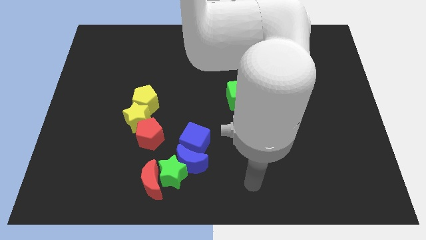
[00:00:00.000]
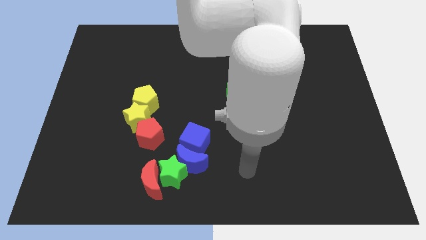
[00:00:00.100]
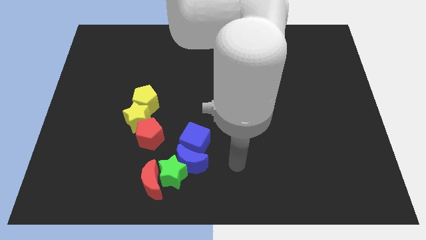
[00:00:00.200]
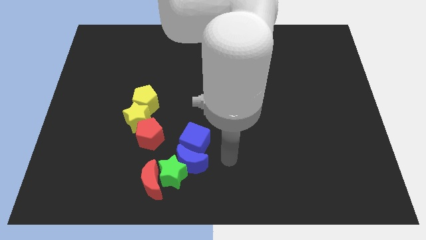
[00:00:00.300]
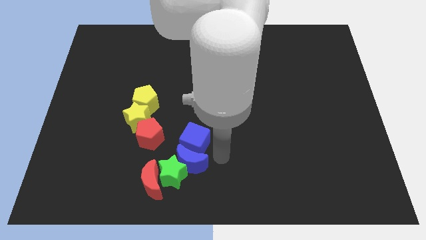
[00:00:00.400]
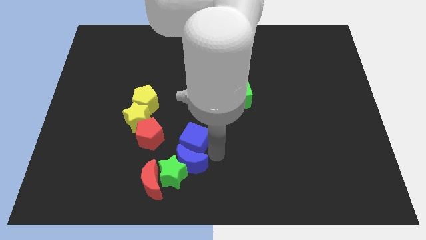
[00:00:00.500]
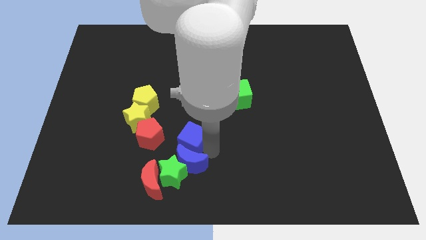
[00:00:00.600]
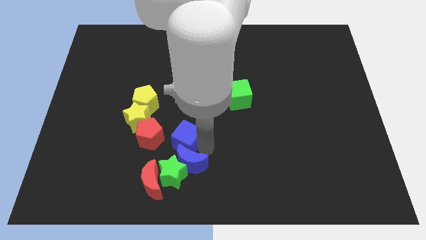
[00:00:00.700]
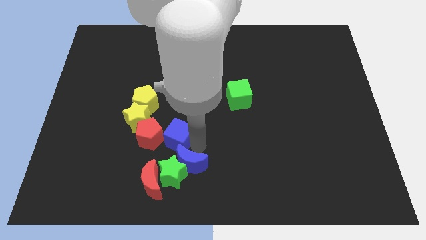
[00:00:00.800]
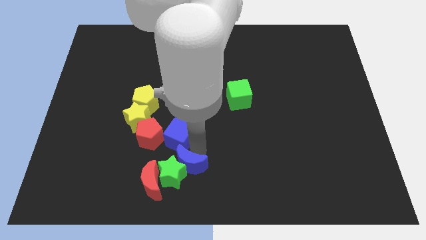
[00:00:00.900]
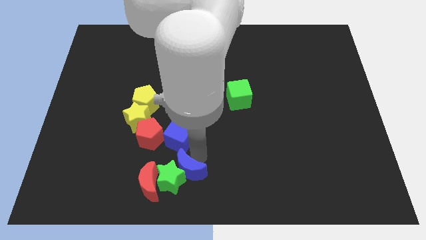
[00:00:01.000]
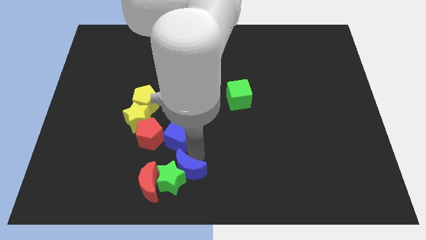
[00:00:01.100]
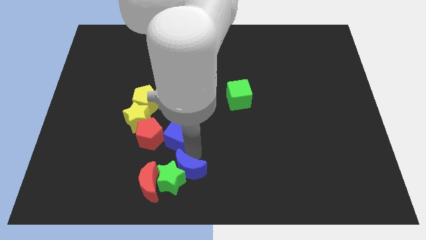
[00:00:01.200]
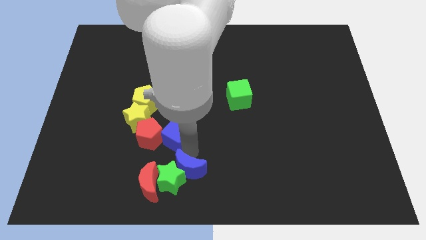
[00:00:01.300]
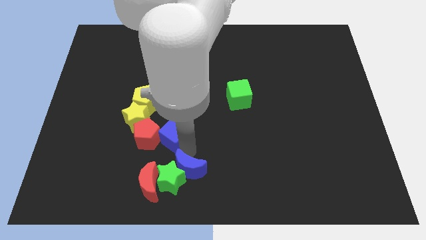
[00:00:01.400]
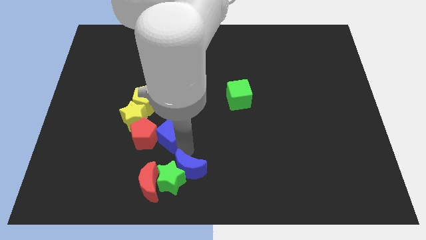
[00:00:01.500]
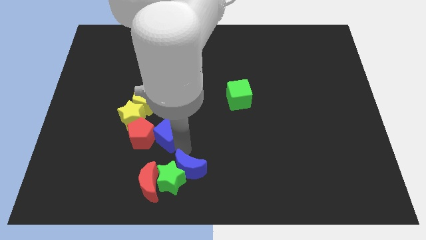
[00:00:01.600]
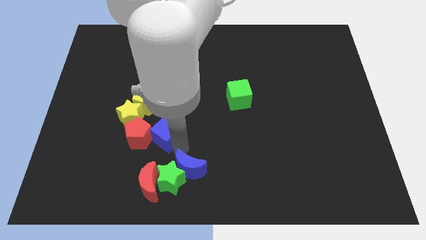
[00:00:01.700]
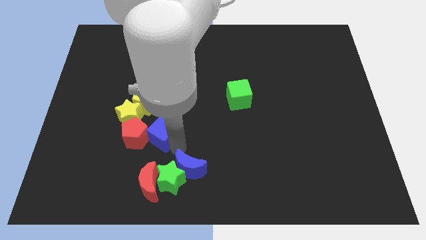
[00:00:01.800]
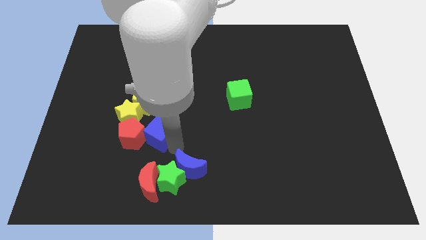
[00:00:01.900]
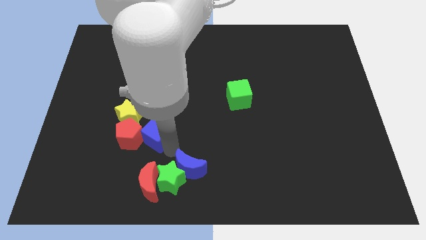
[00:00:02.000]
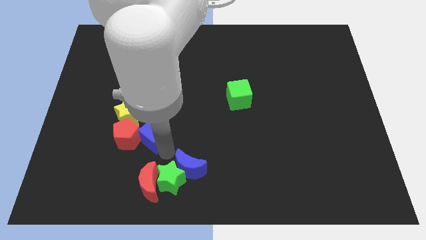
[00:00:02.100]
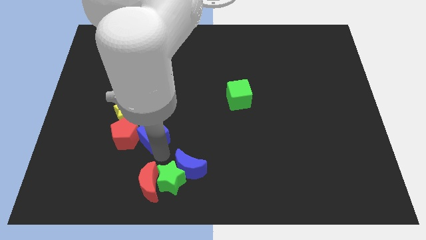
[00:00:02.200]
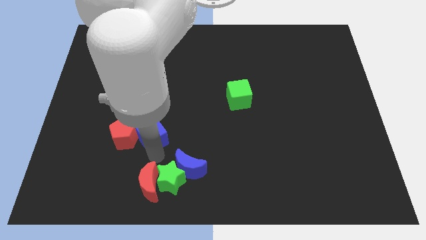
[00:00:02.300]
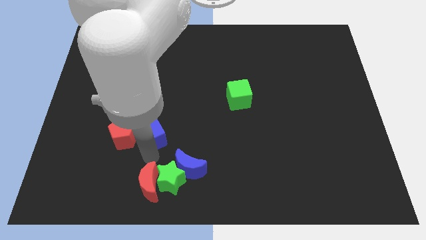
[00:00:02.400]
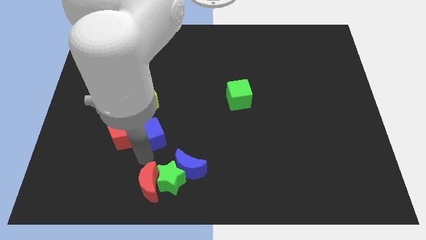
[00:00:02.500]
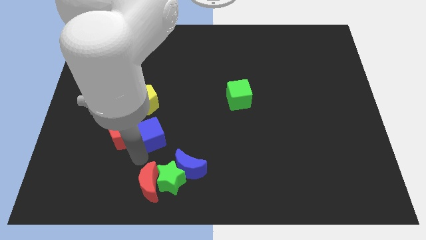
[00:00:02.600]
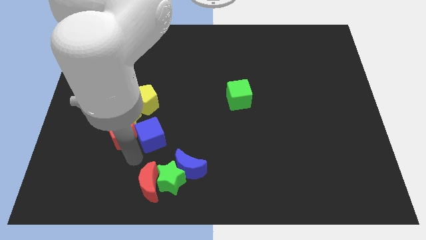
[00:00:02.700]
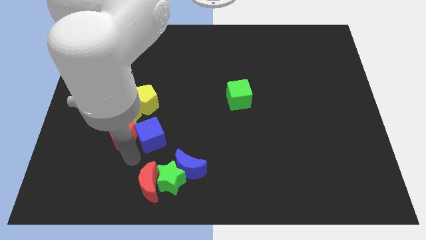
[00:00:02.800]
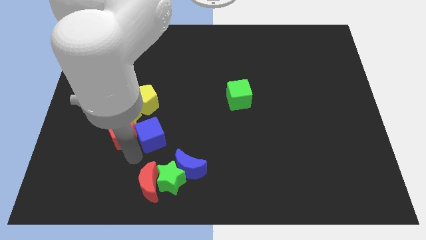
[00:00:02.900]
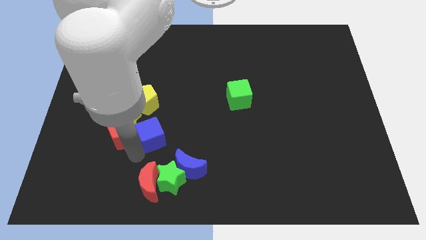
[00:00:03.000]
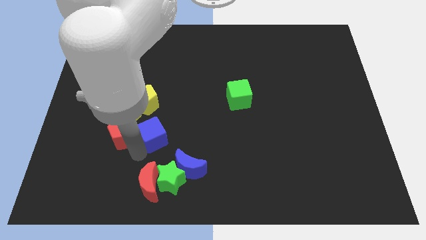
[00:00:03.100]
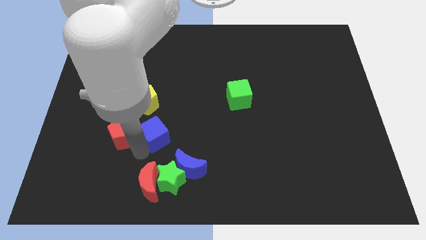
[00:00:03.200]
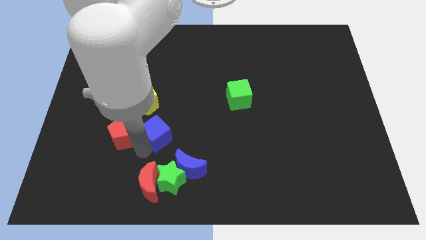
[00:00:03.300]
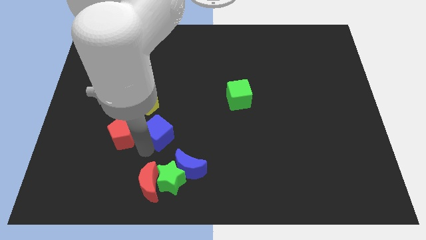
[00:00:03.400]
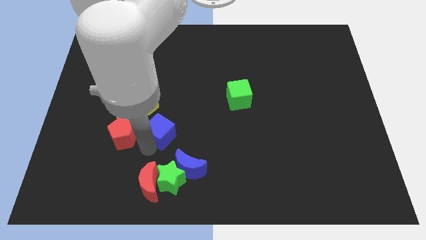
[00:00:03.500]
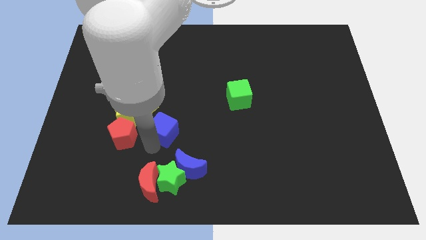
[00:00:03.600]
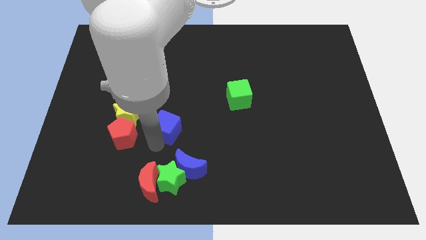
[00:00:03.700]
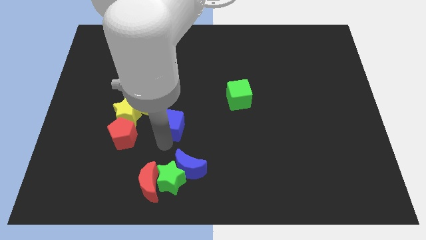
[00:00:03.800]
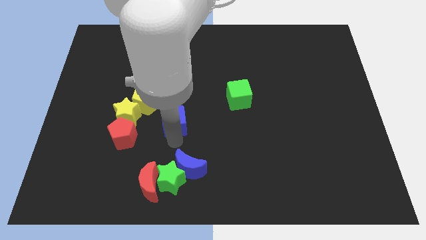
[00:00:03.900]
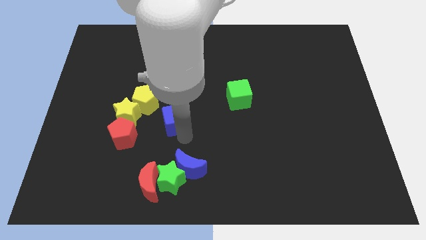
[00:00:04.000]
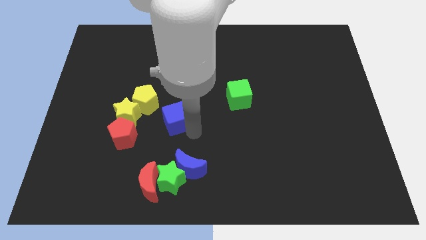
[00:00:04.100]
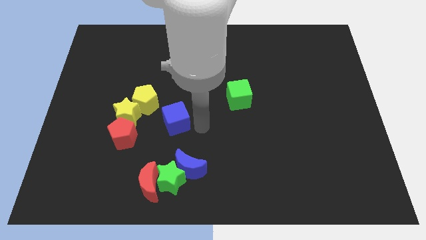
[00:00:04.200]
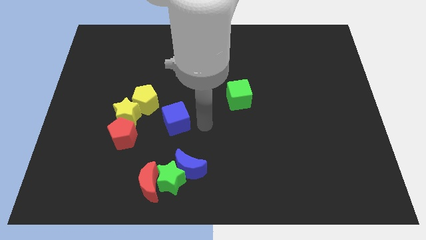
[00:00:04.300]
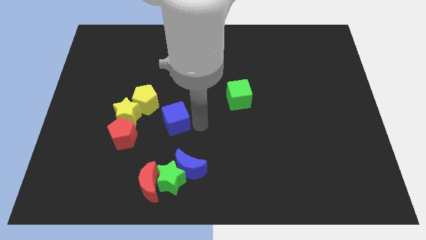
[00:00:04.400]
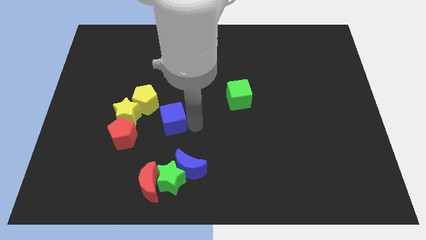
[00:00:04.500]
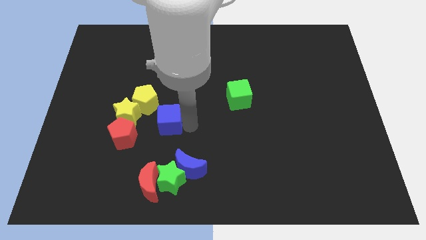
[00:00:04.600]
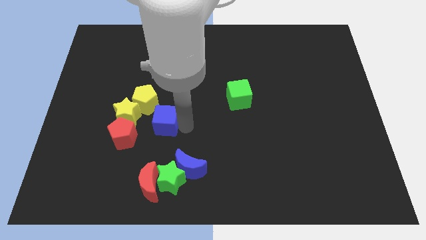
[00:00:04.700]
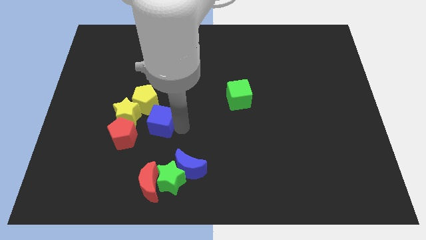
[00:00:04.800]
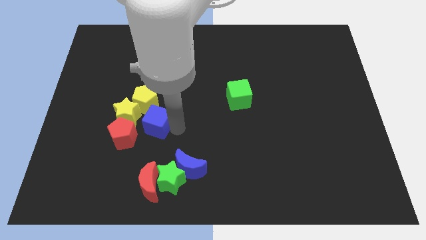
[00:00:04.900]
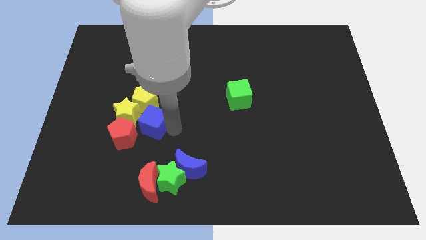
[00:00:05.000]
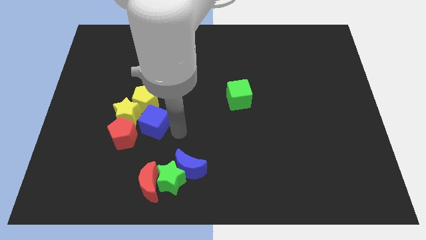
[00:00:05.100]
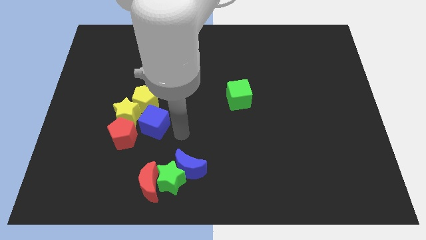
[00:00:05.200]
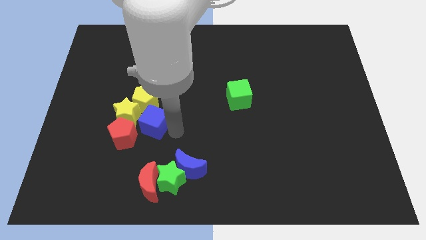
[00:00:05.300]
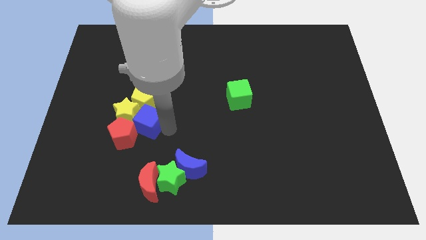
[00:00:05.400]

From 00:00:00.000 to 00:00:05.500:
put the blue cube towards the yellow star

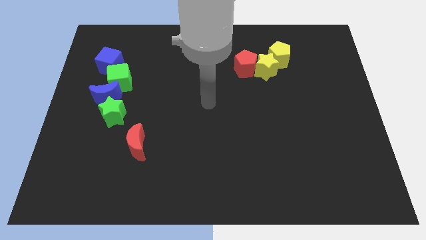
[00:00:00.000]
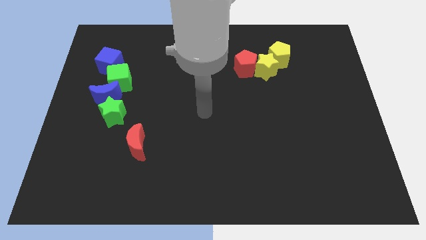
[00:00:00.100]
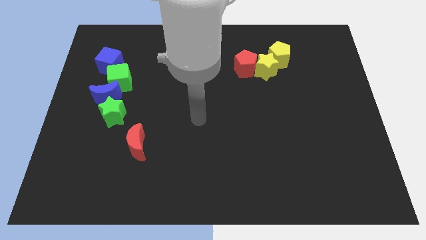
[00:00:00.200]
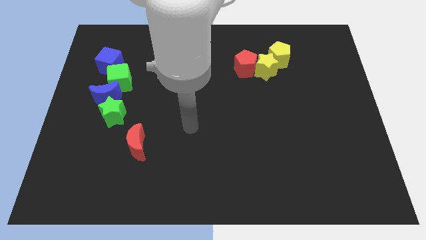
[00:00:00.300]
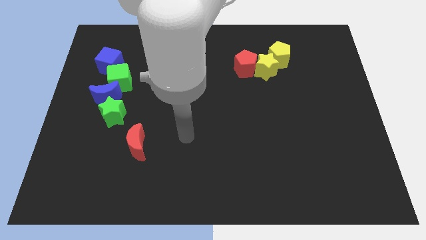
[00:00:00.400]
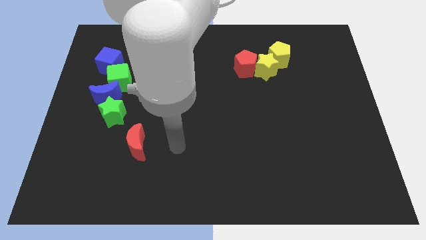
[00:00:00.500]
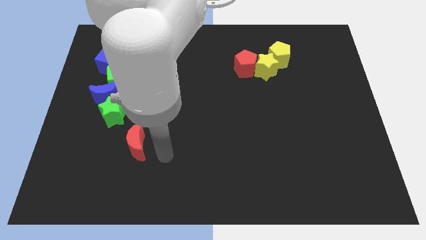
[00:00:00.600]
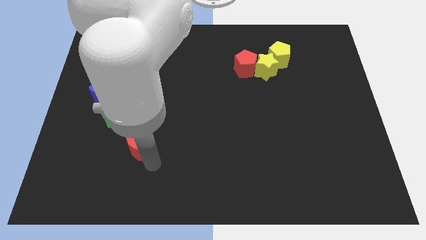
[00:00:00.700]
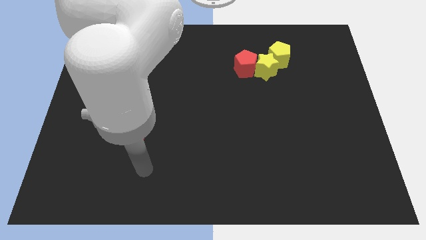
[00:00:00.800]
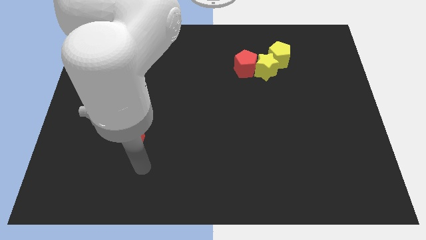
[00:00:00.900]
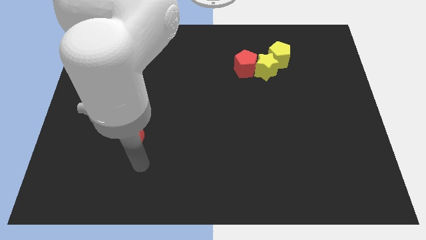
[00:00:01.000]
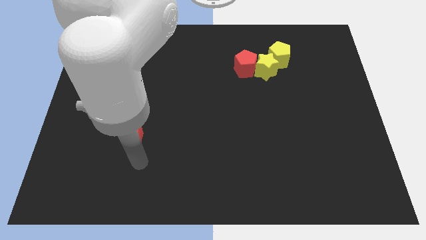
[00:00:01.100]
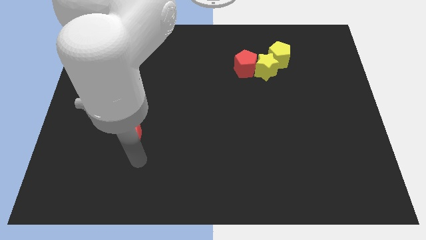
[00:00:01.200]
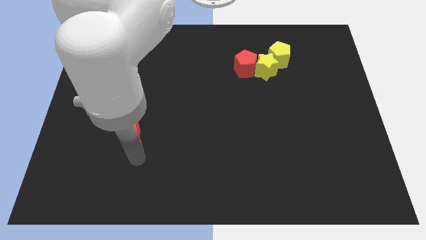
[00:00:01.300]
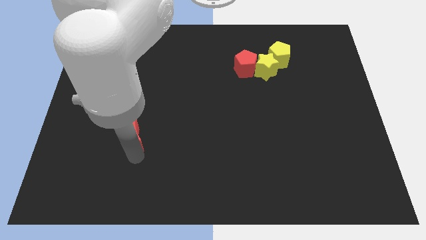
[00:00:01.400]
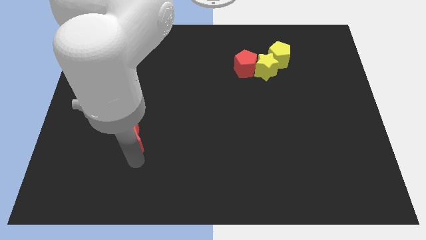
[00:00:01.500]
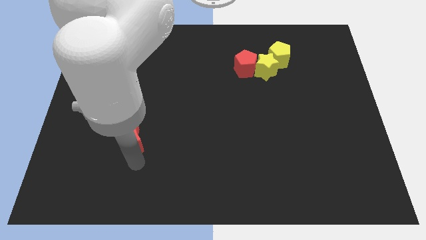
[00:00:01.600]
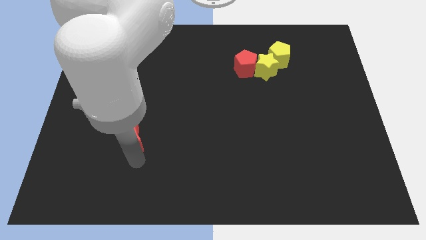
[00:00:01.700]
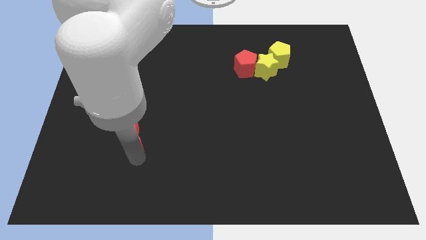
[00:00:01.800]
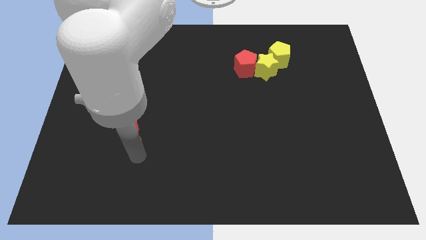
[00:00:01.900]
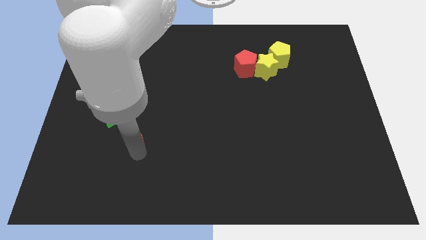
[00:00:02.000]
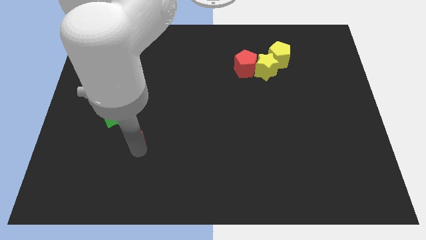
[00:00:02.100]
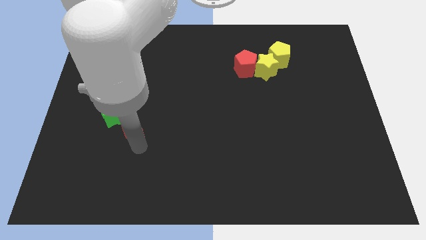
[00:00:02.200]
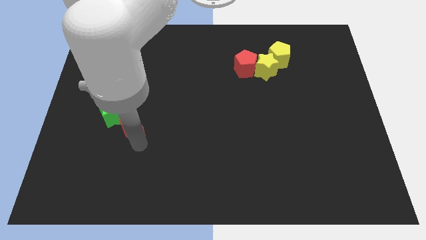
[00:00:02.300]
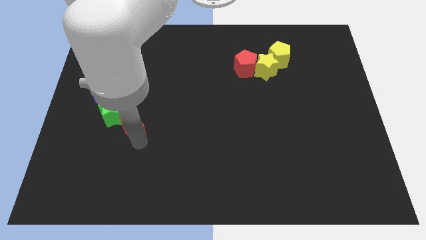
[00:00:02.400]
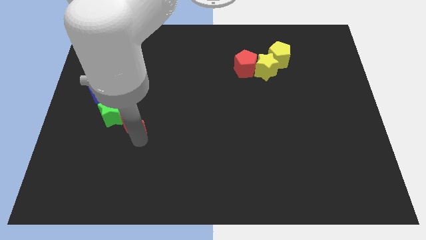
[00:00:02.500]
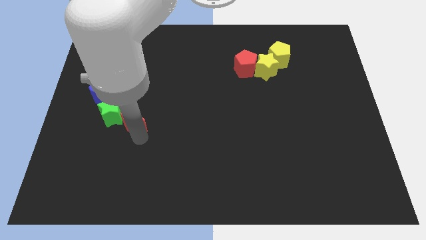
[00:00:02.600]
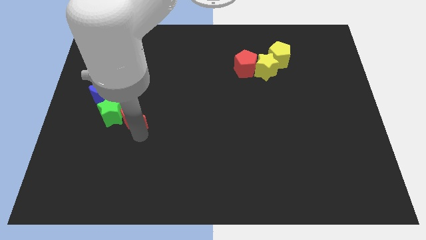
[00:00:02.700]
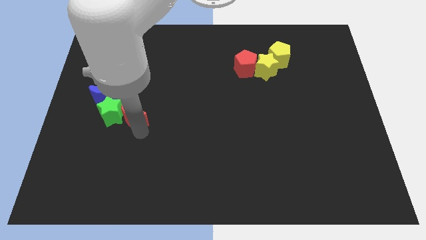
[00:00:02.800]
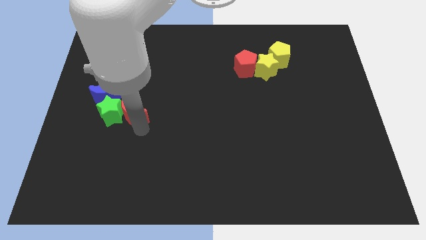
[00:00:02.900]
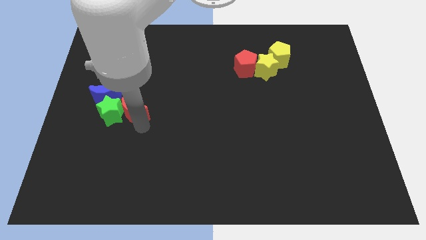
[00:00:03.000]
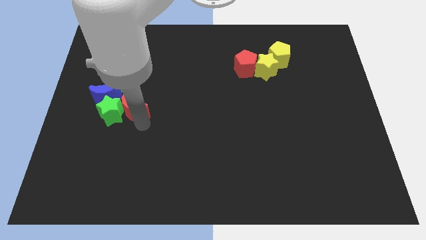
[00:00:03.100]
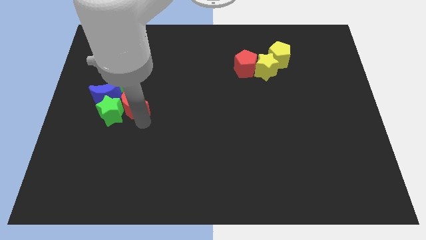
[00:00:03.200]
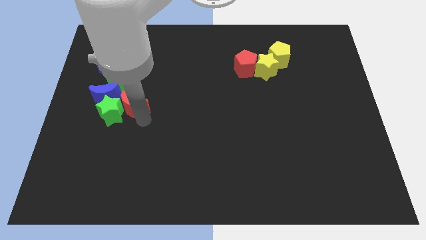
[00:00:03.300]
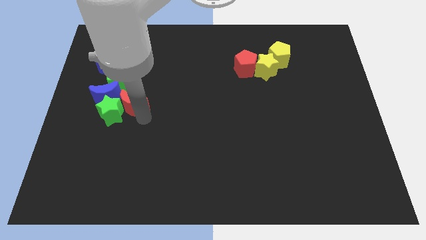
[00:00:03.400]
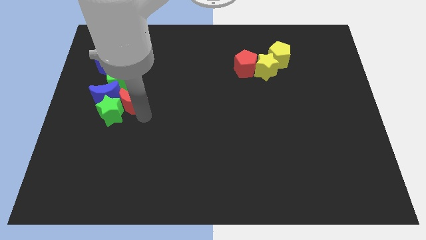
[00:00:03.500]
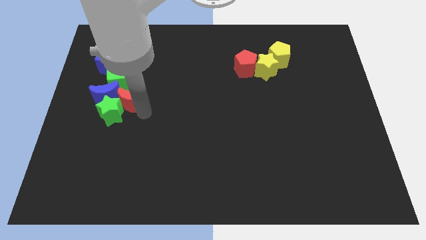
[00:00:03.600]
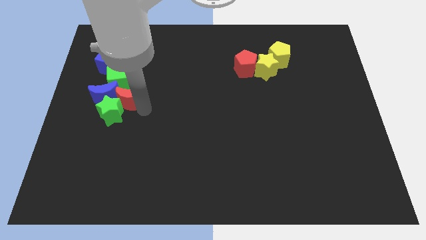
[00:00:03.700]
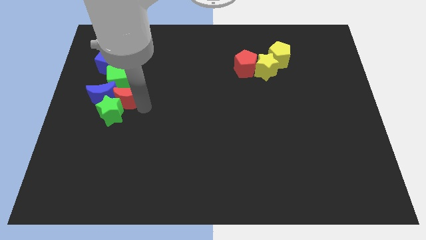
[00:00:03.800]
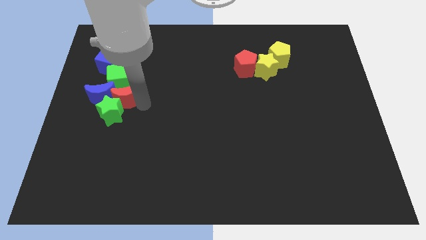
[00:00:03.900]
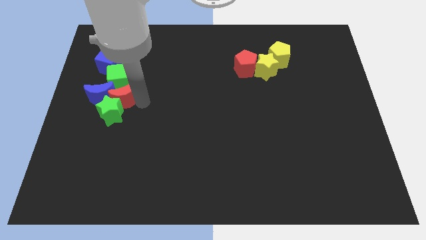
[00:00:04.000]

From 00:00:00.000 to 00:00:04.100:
slide the red moon next to the green cube
